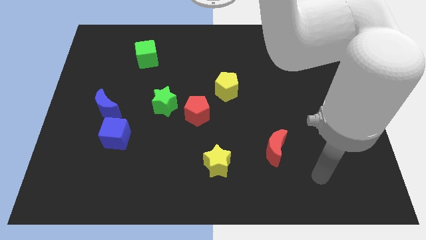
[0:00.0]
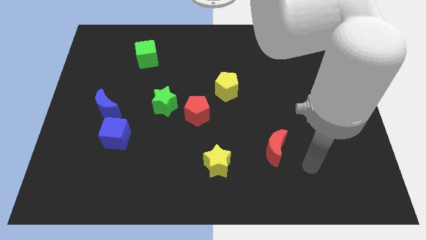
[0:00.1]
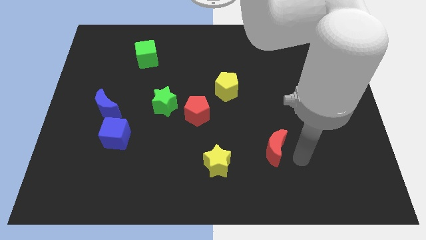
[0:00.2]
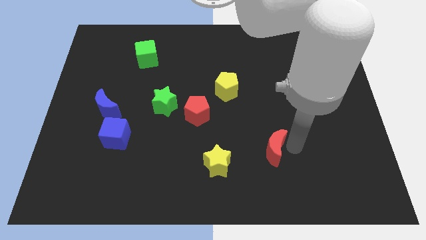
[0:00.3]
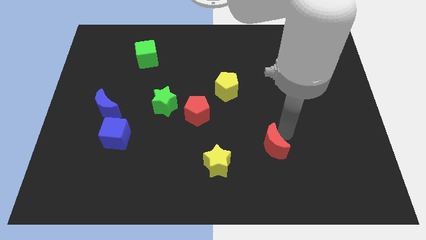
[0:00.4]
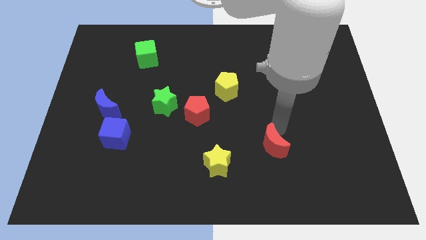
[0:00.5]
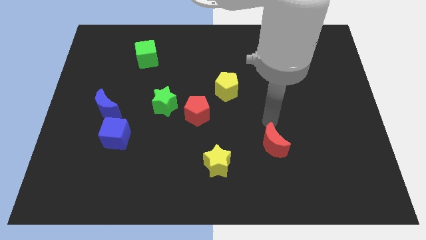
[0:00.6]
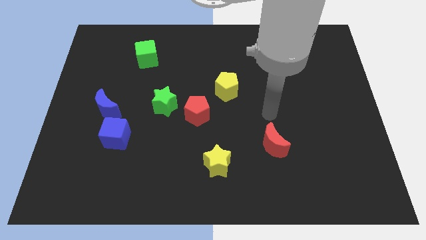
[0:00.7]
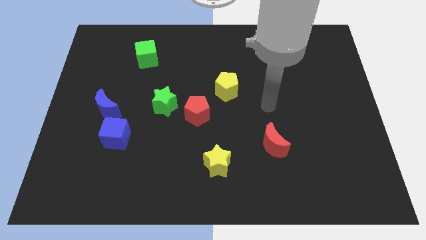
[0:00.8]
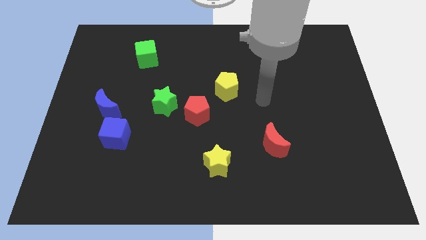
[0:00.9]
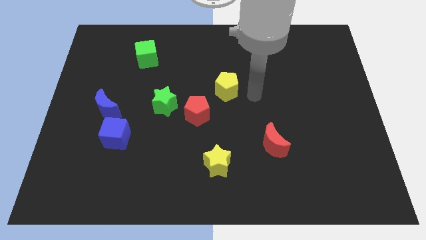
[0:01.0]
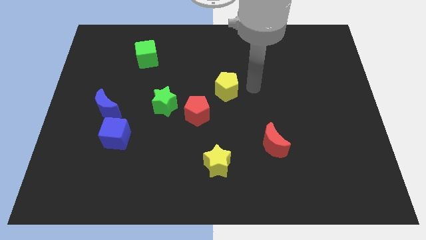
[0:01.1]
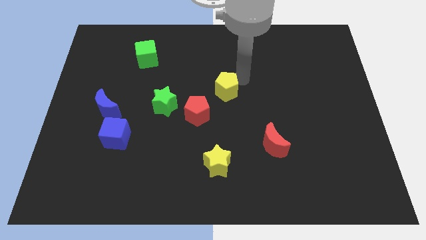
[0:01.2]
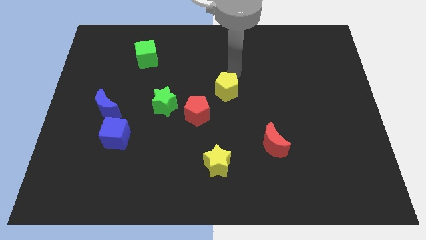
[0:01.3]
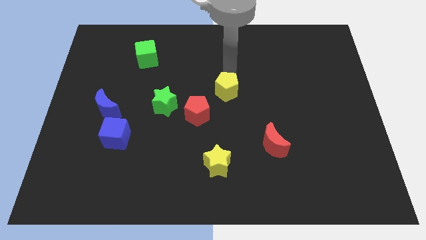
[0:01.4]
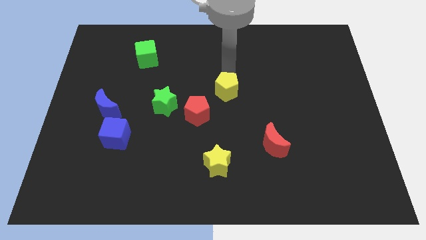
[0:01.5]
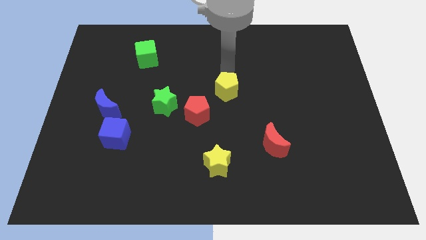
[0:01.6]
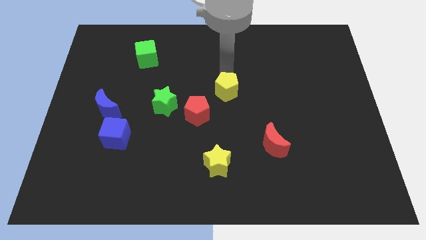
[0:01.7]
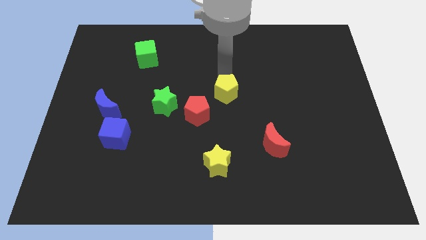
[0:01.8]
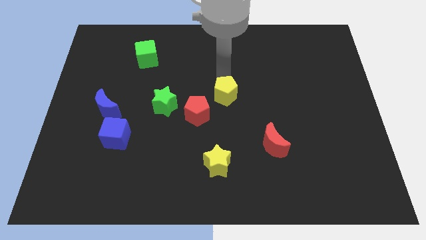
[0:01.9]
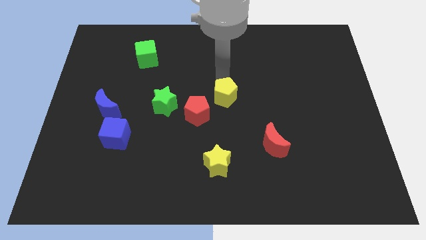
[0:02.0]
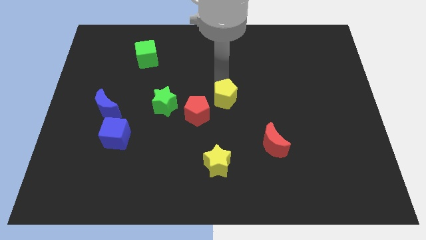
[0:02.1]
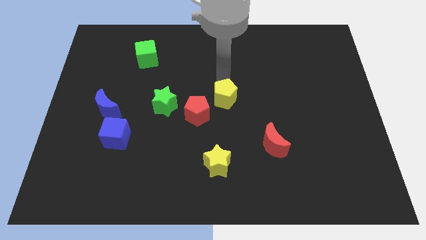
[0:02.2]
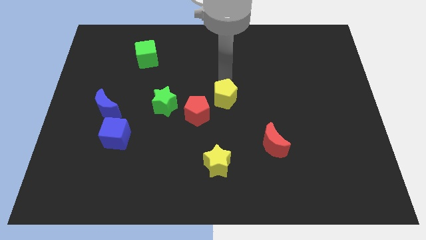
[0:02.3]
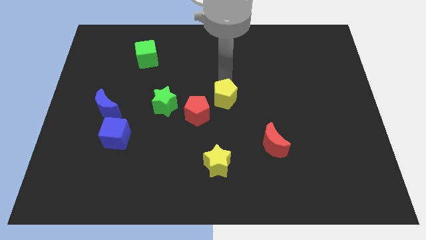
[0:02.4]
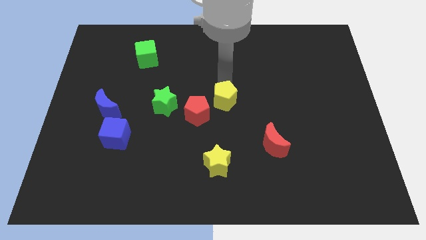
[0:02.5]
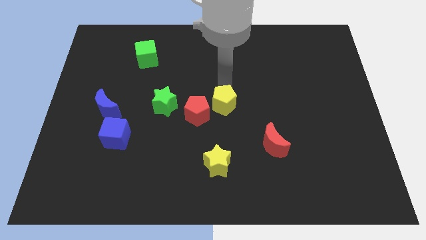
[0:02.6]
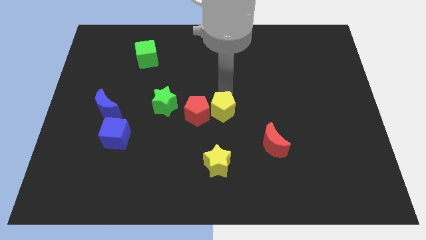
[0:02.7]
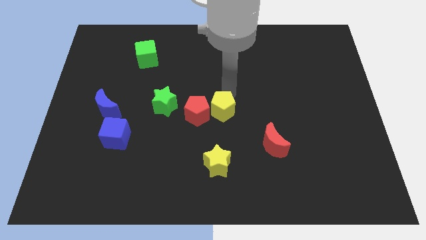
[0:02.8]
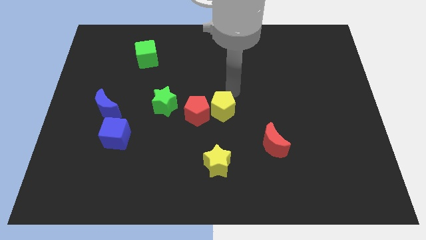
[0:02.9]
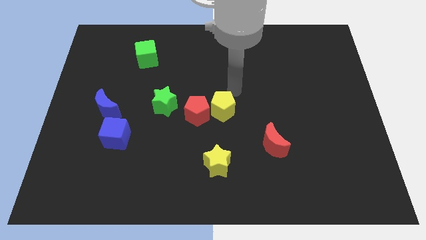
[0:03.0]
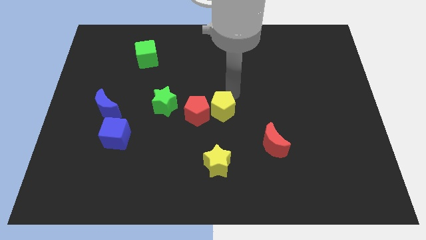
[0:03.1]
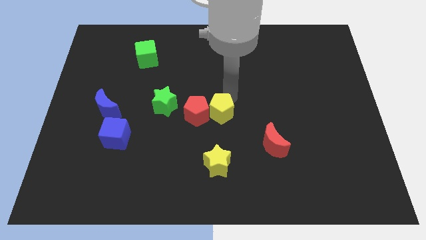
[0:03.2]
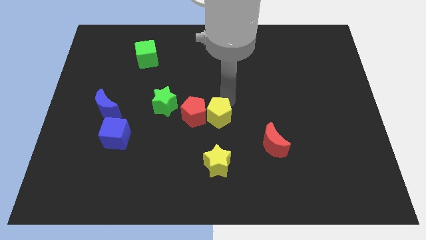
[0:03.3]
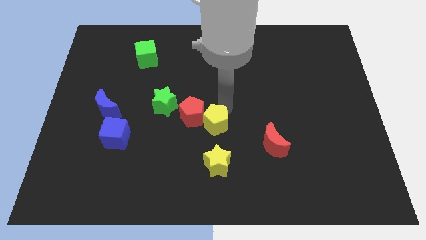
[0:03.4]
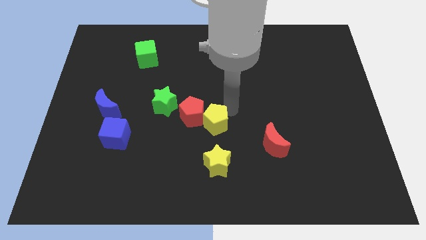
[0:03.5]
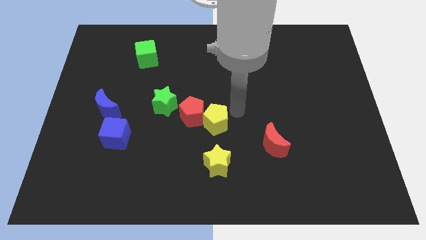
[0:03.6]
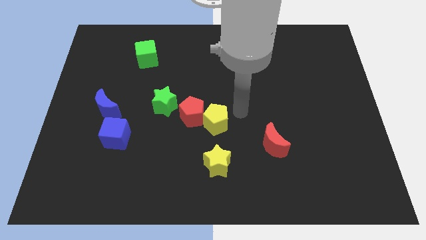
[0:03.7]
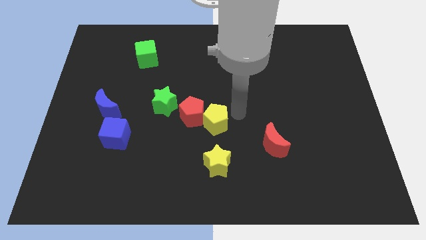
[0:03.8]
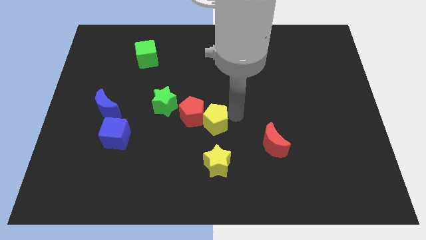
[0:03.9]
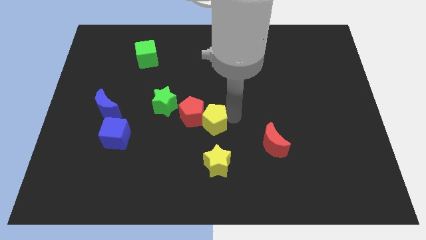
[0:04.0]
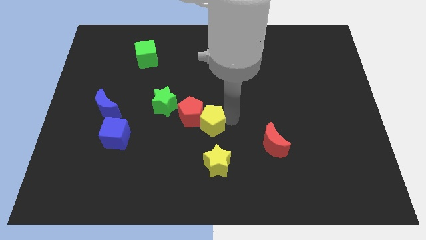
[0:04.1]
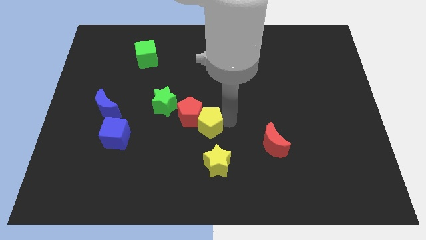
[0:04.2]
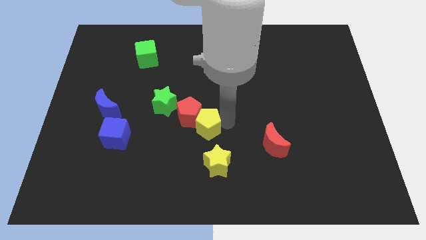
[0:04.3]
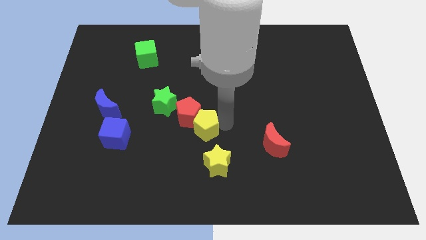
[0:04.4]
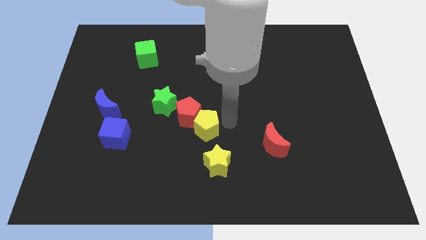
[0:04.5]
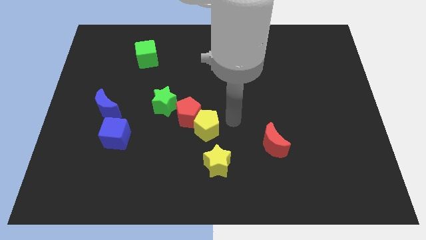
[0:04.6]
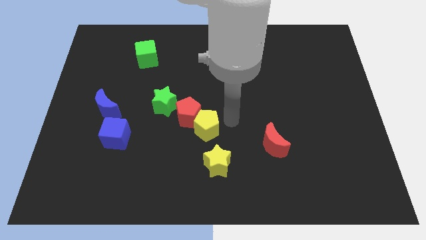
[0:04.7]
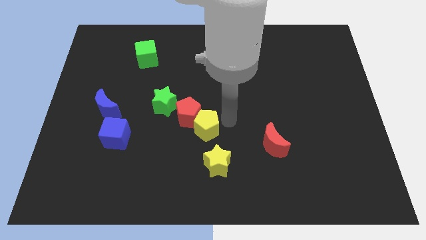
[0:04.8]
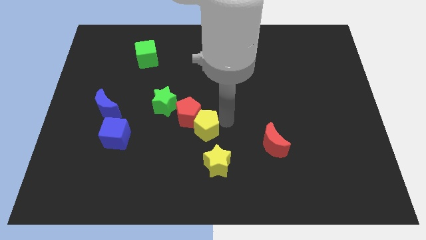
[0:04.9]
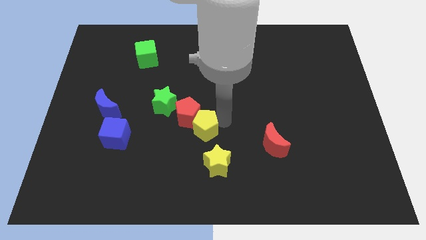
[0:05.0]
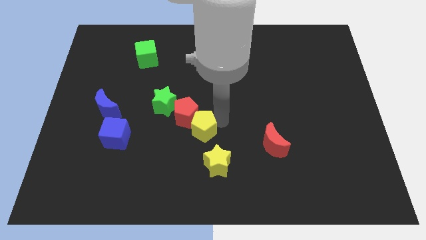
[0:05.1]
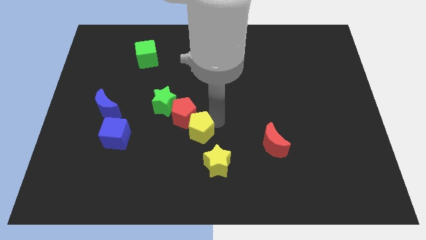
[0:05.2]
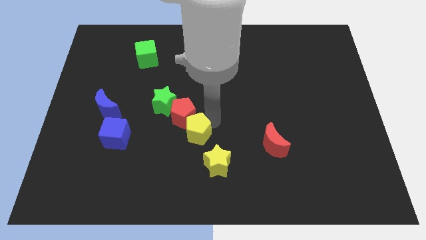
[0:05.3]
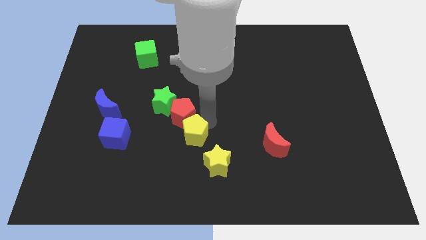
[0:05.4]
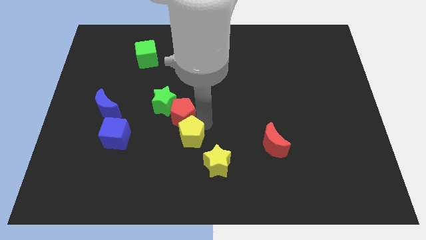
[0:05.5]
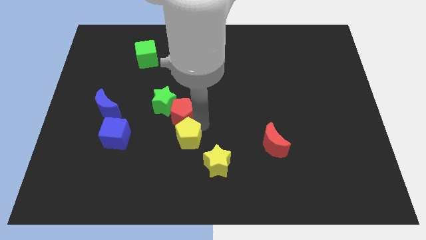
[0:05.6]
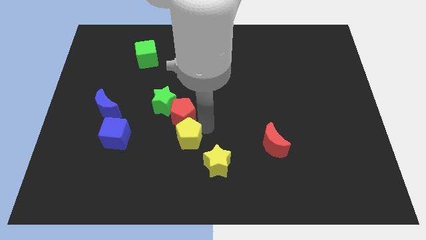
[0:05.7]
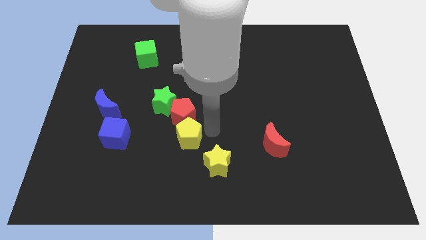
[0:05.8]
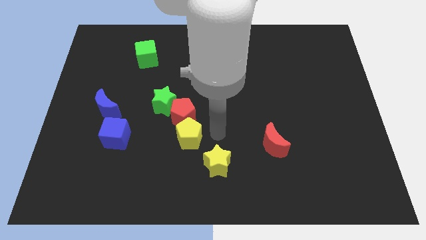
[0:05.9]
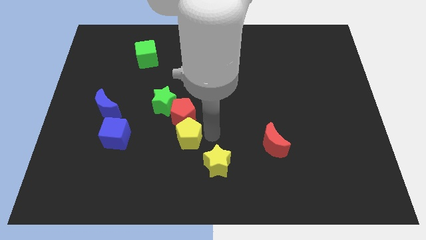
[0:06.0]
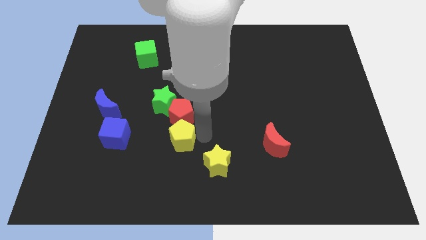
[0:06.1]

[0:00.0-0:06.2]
put the yellow pentagon to the bottom of the green star

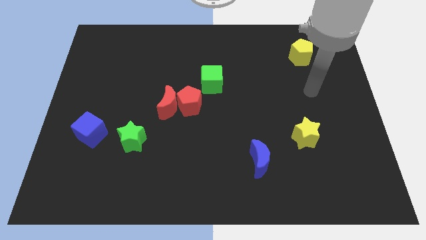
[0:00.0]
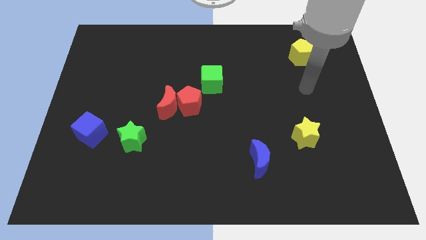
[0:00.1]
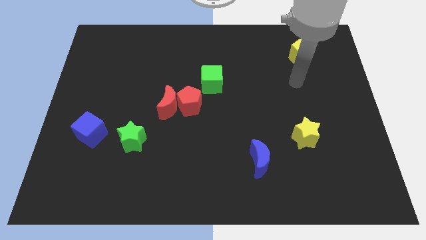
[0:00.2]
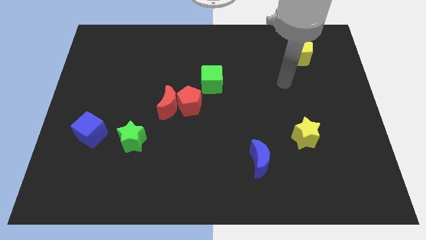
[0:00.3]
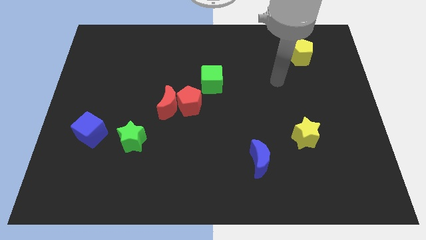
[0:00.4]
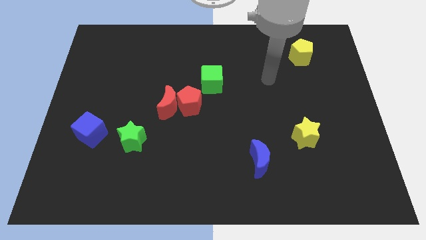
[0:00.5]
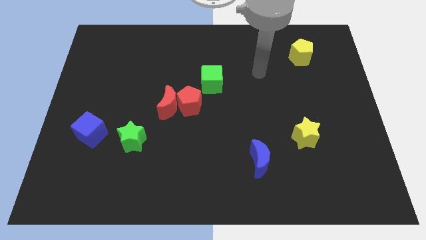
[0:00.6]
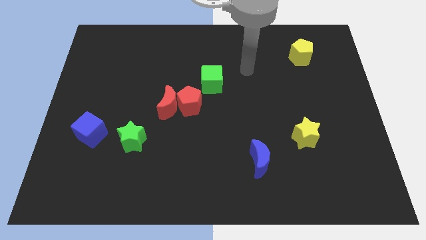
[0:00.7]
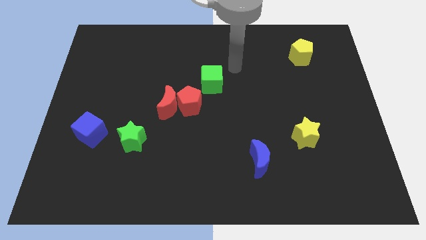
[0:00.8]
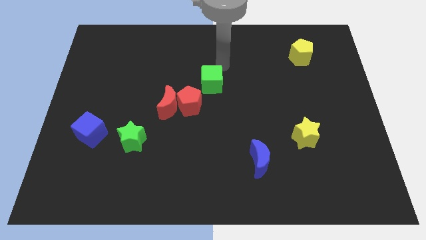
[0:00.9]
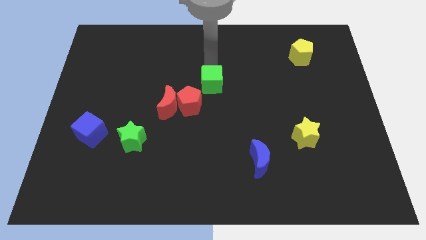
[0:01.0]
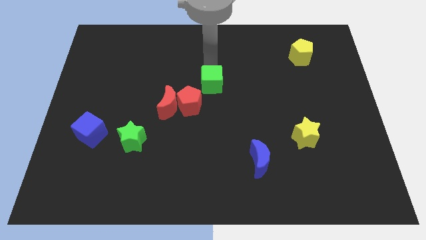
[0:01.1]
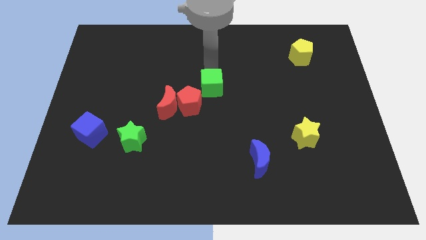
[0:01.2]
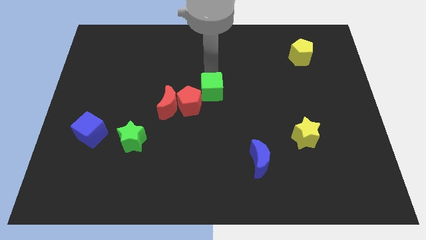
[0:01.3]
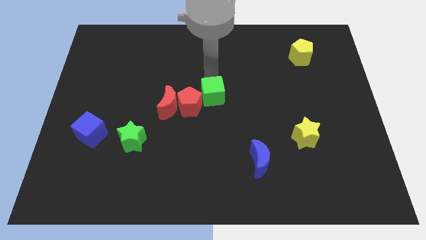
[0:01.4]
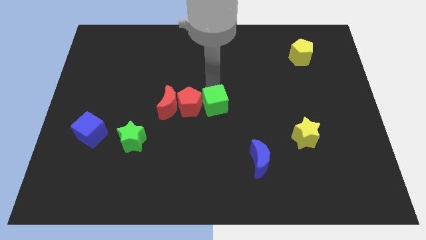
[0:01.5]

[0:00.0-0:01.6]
put the green cube to the bottom right side of the red pentagon

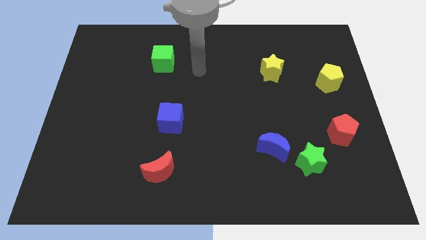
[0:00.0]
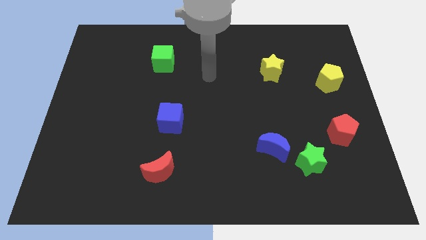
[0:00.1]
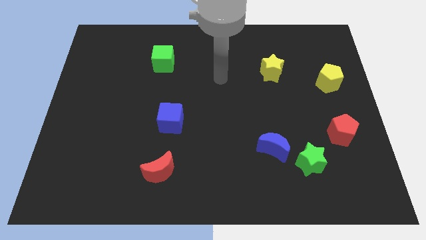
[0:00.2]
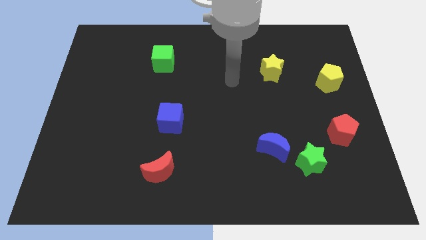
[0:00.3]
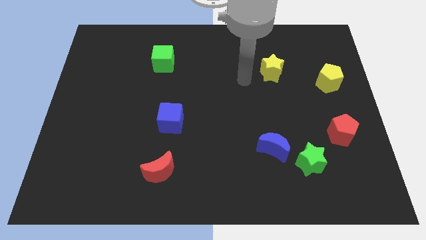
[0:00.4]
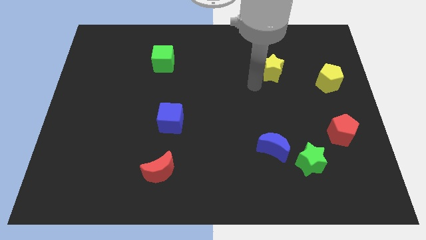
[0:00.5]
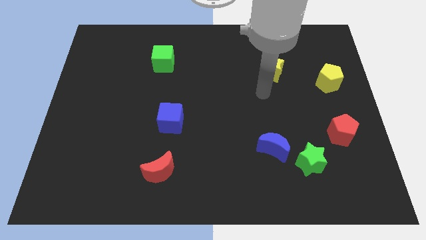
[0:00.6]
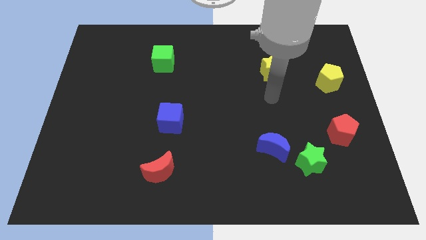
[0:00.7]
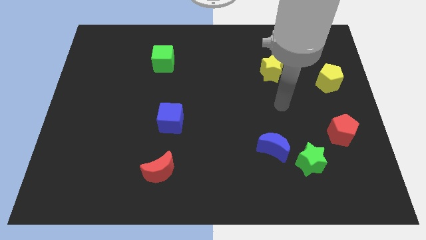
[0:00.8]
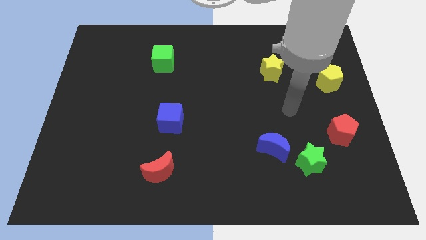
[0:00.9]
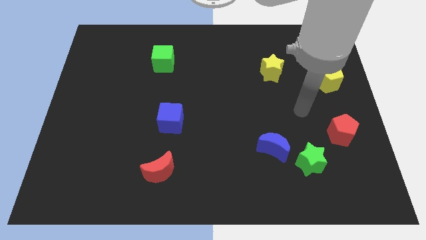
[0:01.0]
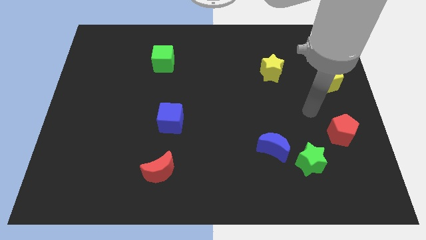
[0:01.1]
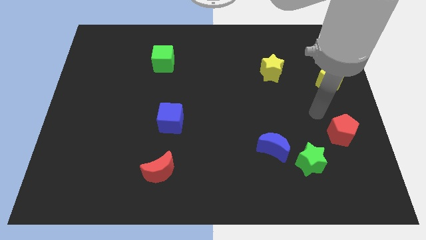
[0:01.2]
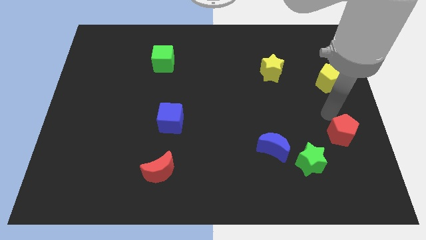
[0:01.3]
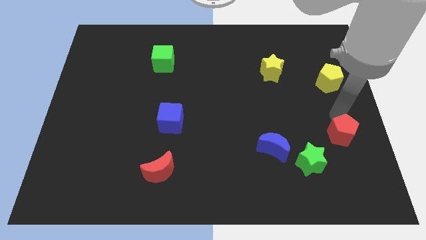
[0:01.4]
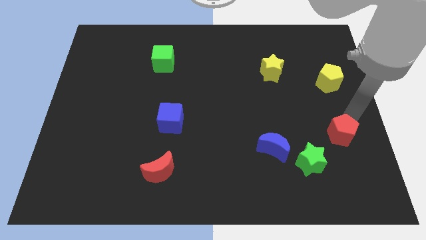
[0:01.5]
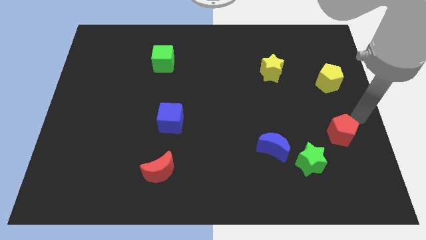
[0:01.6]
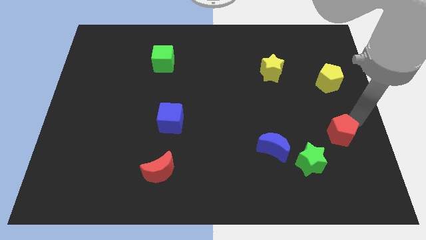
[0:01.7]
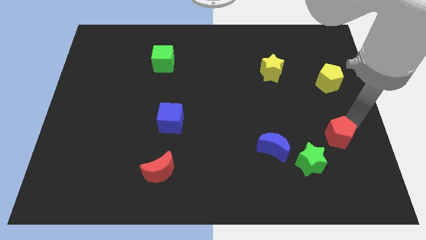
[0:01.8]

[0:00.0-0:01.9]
push the red pentagon to the right side of the blue moon
